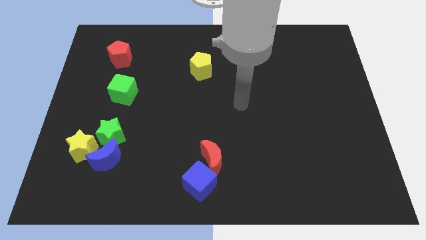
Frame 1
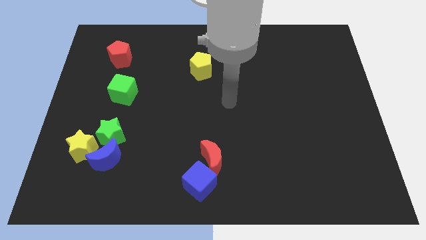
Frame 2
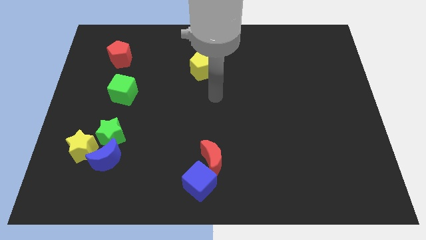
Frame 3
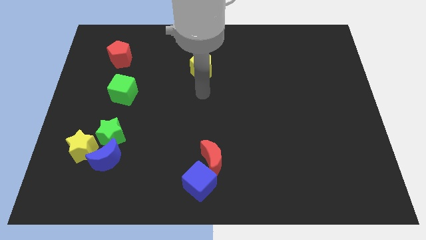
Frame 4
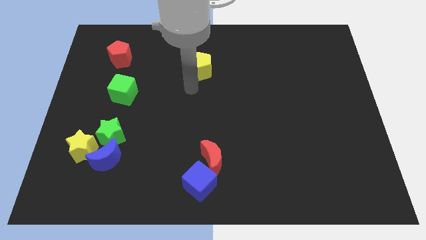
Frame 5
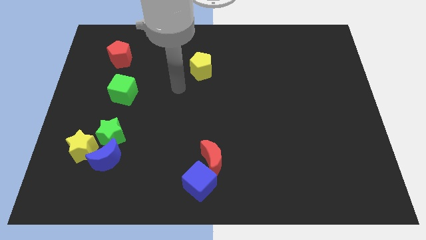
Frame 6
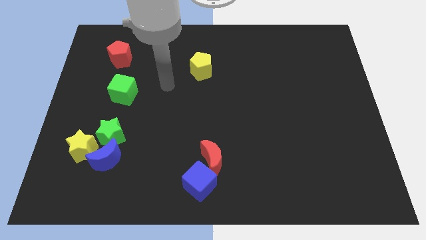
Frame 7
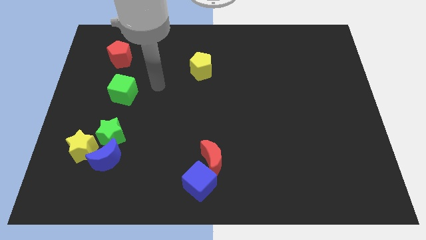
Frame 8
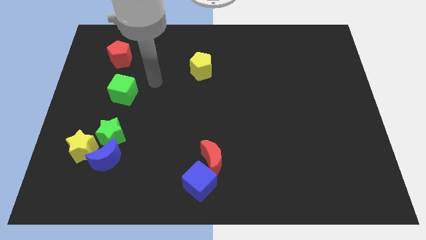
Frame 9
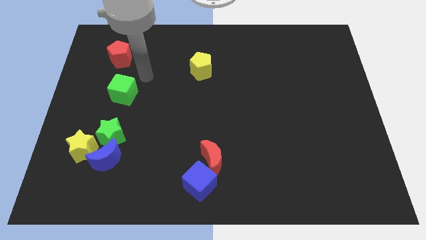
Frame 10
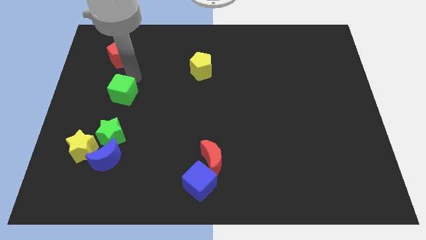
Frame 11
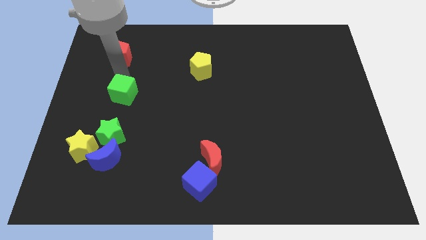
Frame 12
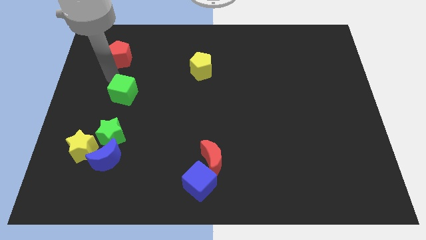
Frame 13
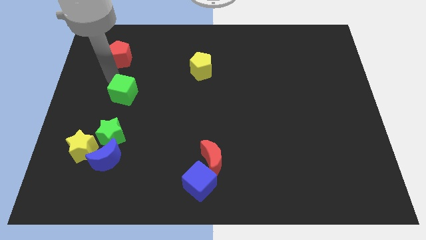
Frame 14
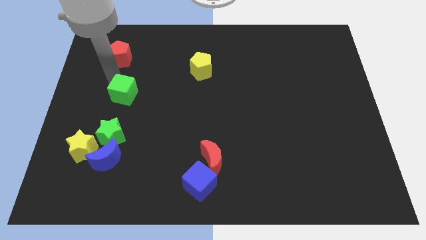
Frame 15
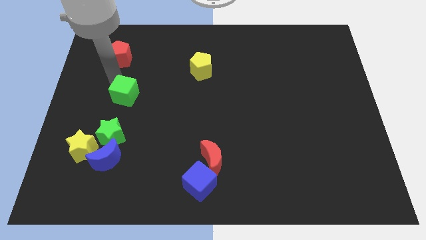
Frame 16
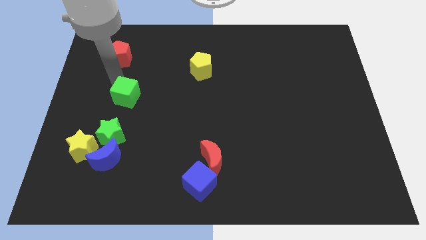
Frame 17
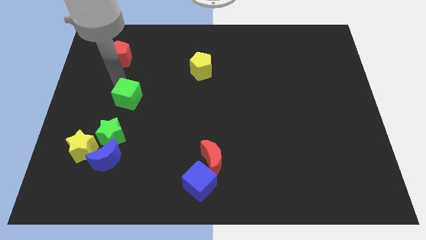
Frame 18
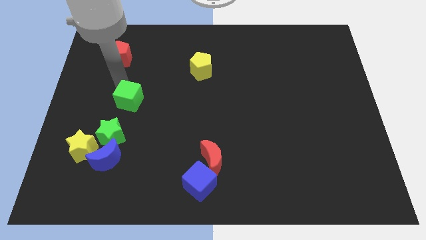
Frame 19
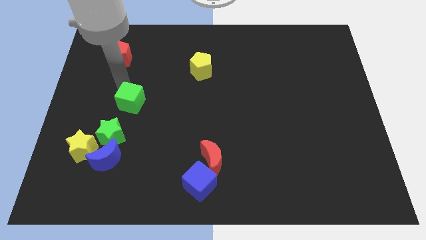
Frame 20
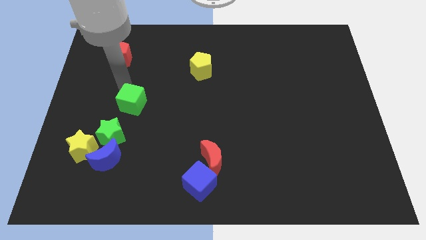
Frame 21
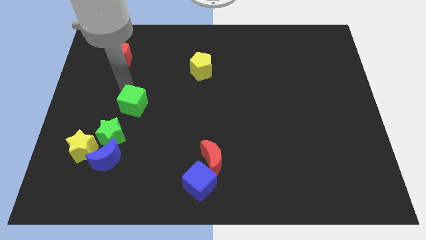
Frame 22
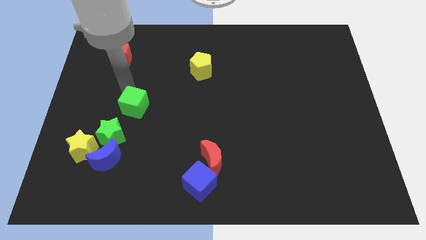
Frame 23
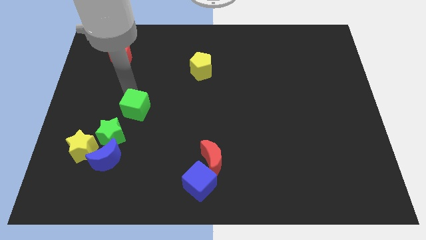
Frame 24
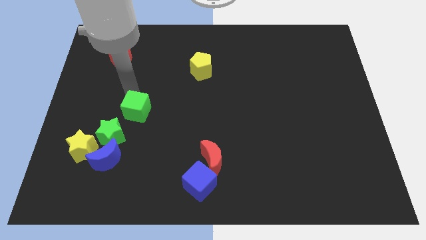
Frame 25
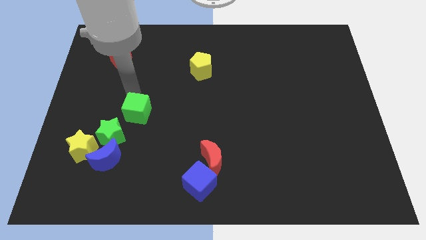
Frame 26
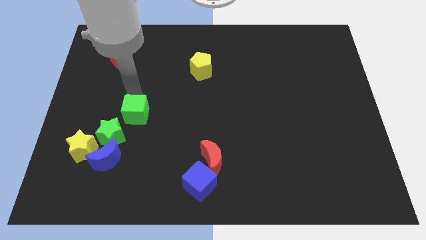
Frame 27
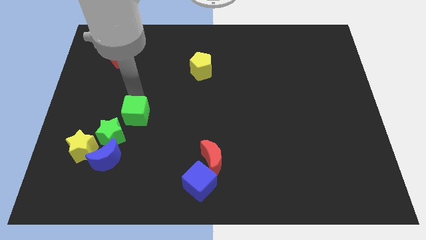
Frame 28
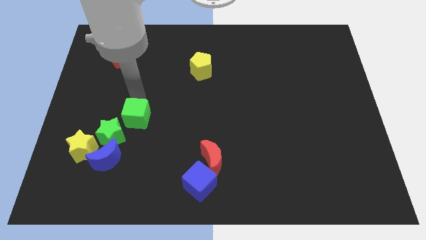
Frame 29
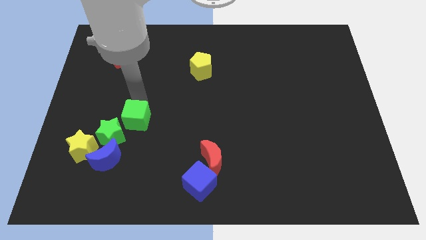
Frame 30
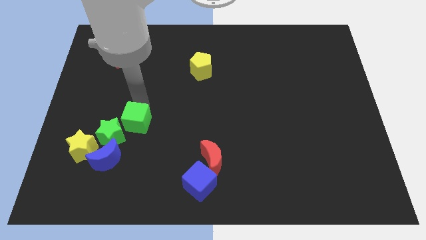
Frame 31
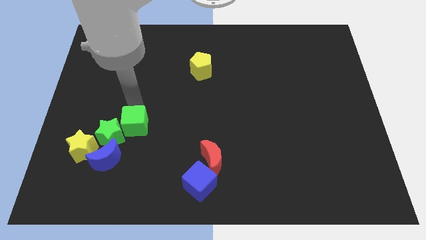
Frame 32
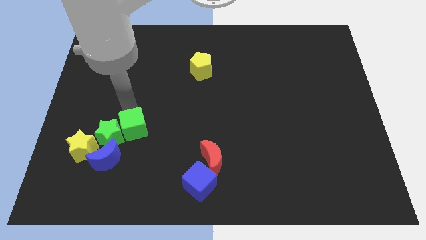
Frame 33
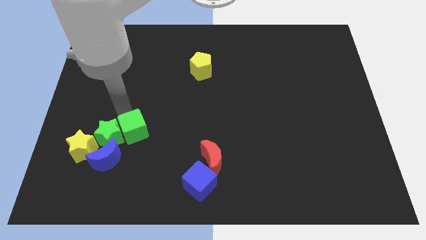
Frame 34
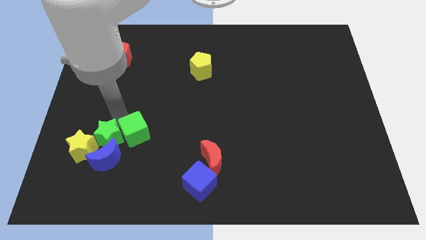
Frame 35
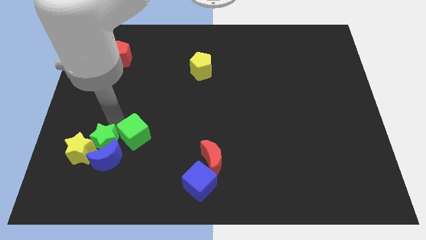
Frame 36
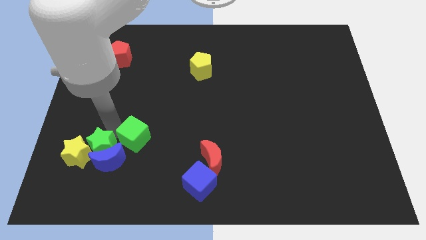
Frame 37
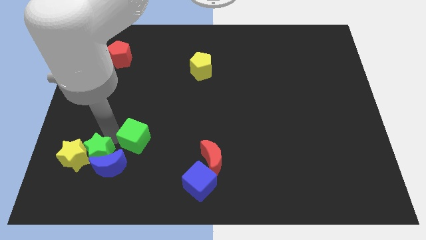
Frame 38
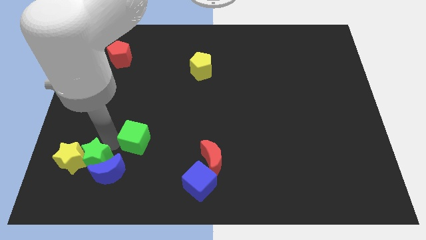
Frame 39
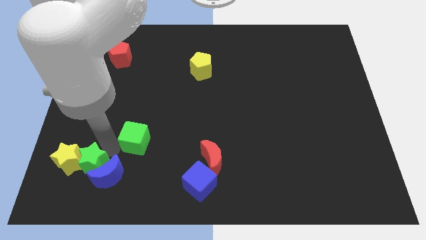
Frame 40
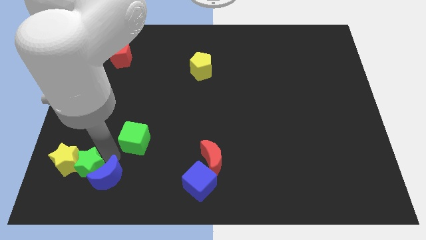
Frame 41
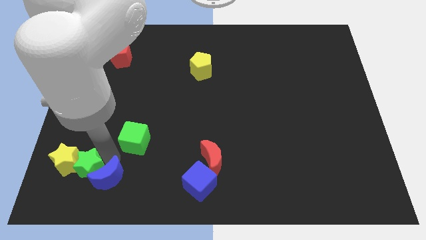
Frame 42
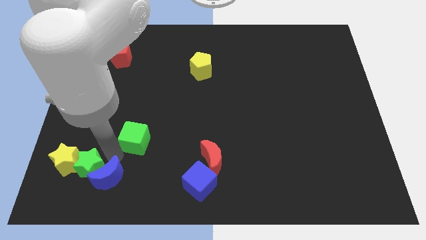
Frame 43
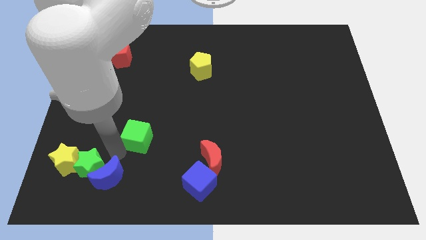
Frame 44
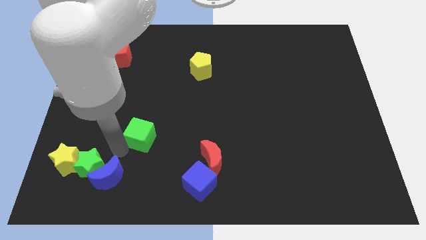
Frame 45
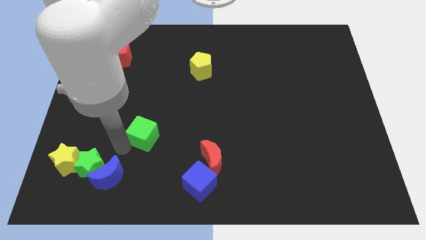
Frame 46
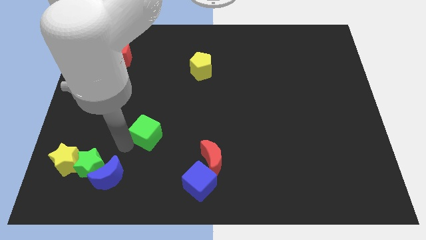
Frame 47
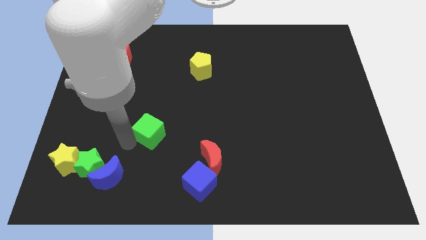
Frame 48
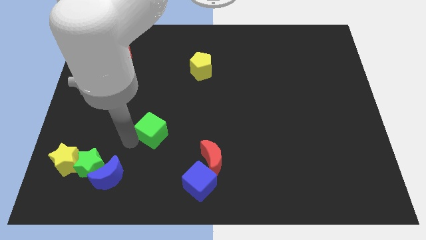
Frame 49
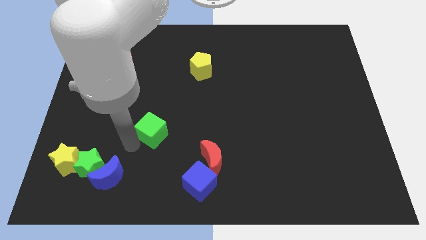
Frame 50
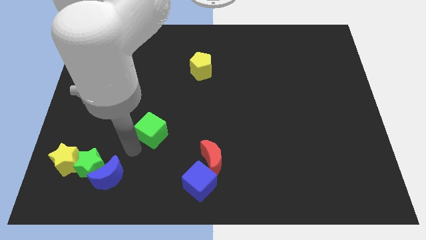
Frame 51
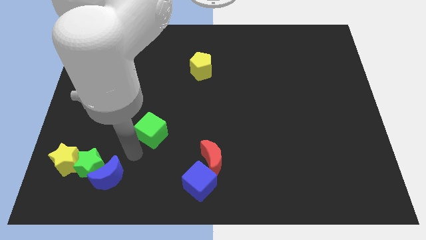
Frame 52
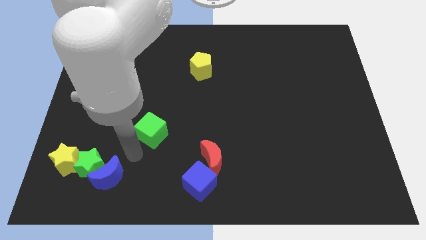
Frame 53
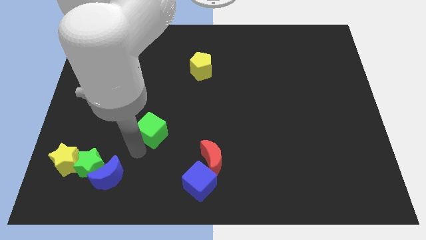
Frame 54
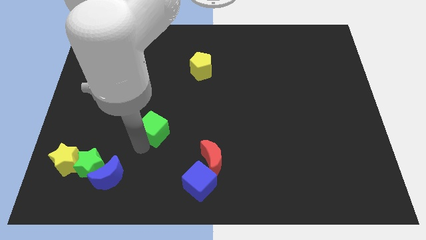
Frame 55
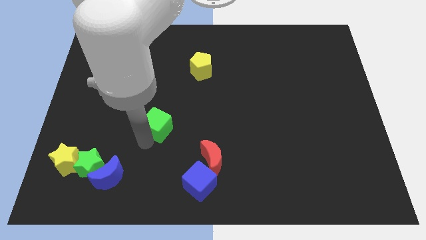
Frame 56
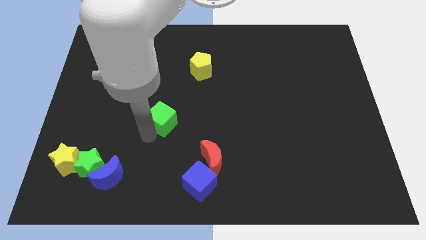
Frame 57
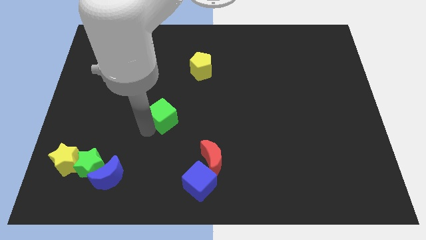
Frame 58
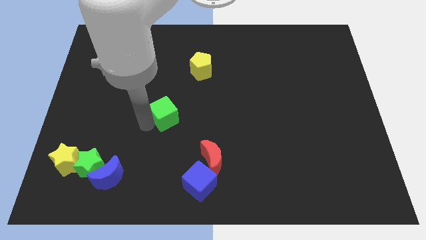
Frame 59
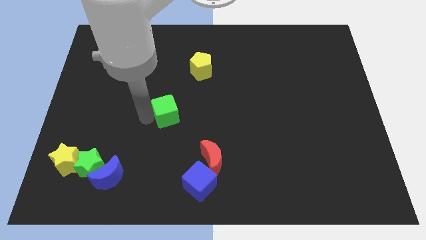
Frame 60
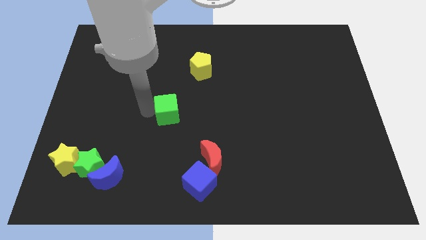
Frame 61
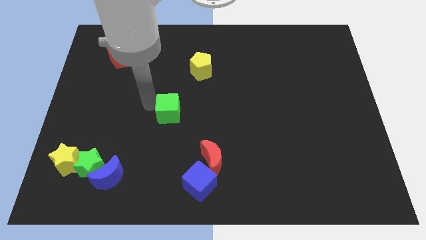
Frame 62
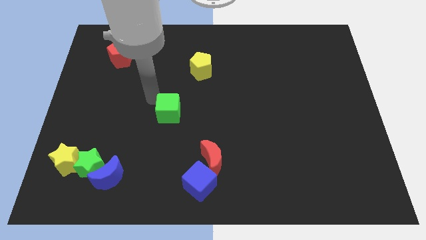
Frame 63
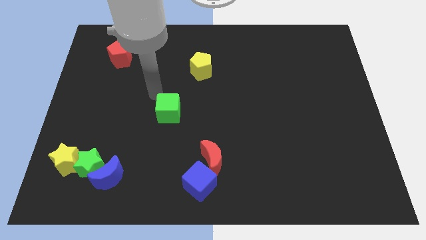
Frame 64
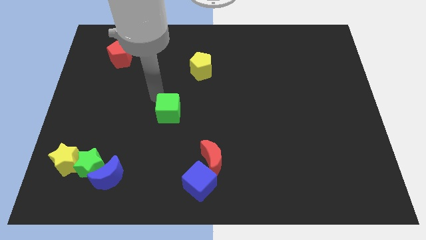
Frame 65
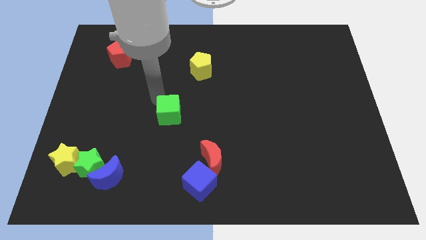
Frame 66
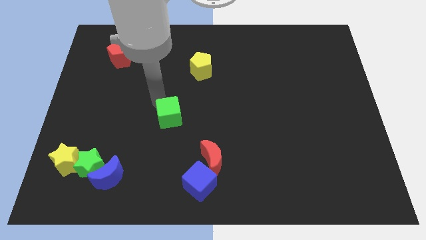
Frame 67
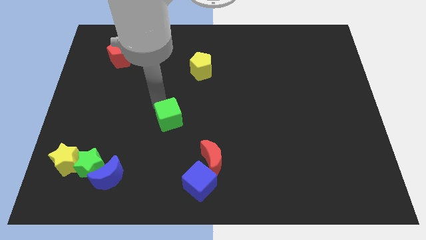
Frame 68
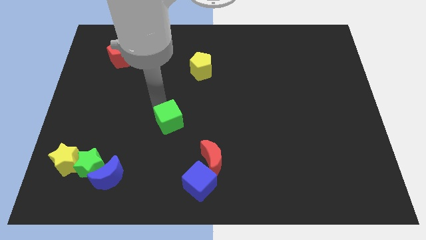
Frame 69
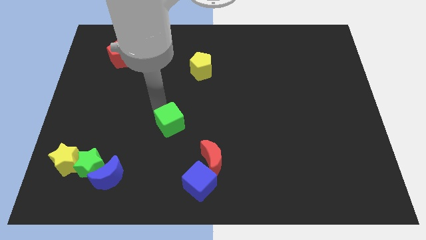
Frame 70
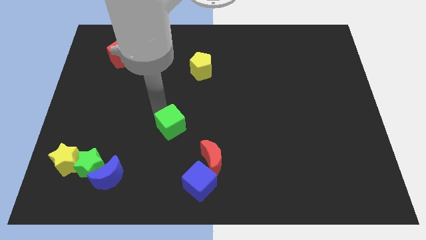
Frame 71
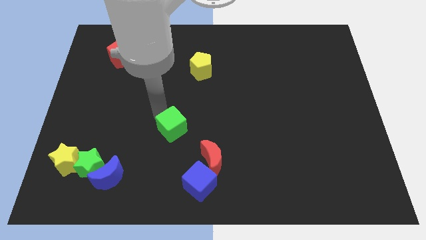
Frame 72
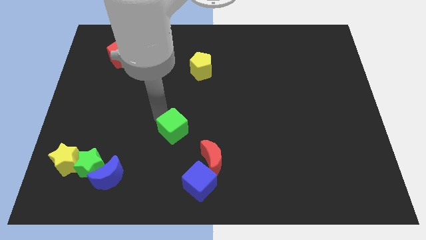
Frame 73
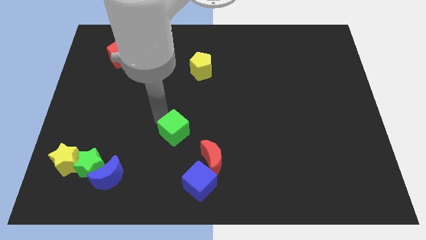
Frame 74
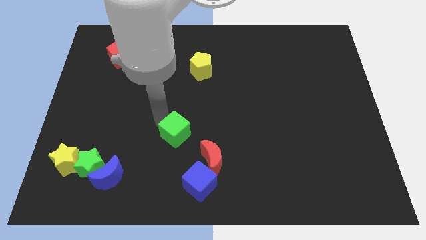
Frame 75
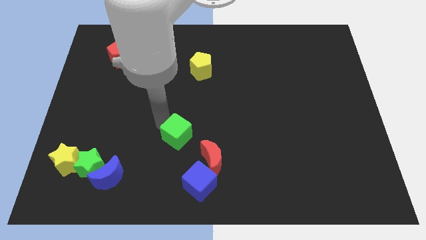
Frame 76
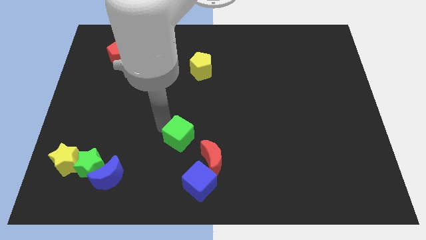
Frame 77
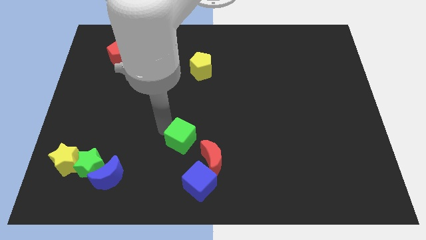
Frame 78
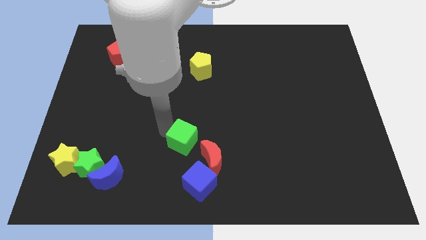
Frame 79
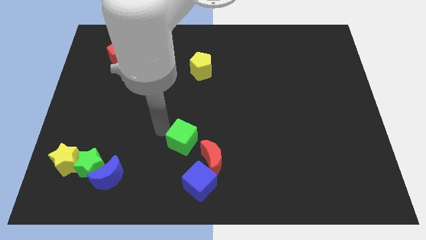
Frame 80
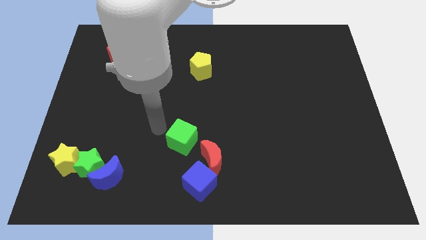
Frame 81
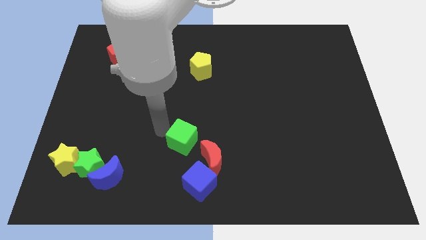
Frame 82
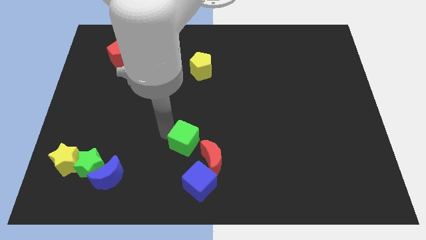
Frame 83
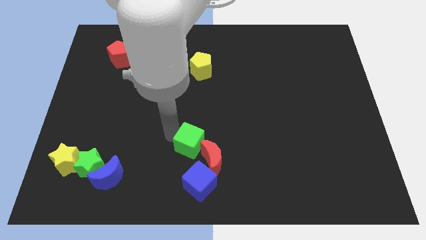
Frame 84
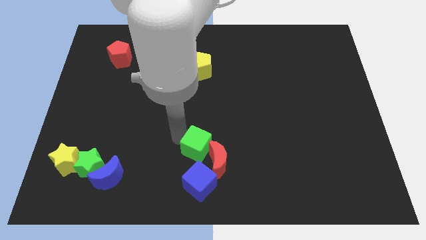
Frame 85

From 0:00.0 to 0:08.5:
put the green cube to the red moon
